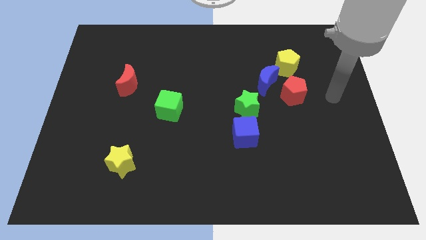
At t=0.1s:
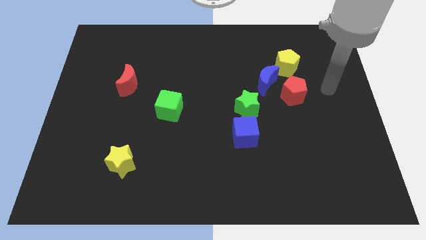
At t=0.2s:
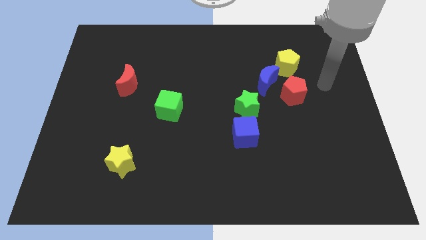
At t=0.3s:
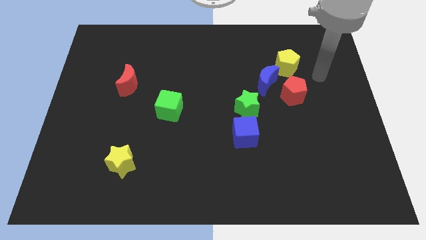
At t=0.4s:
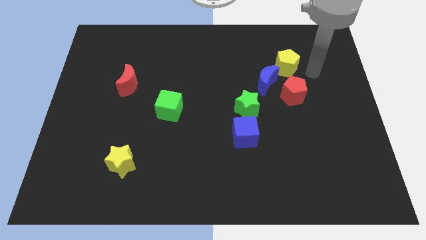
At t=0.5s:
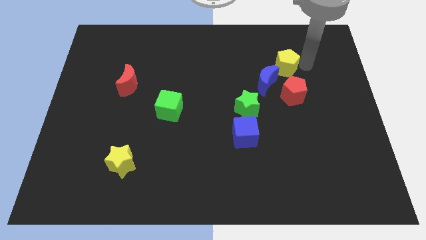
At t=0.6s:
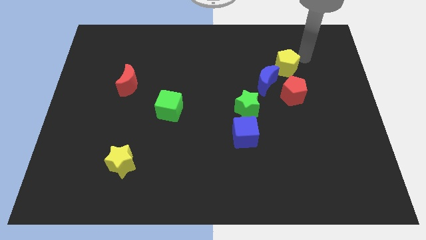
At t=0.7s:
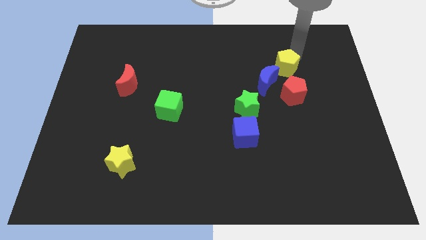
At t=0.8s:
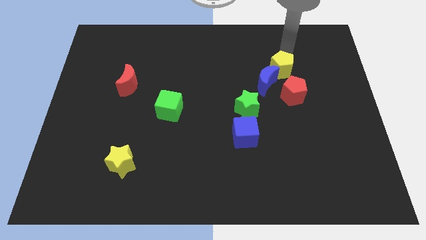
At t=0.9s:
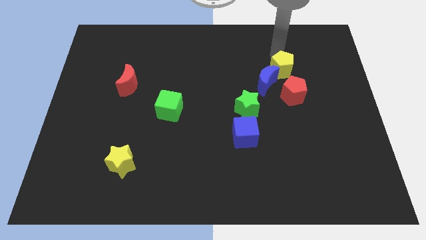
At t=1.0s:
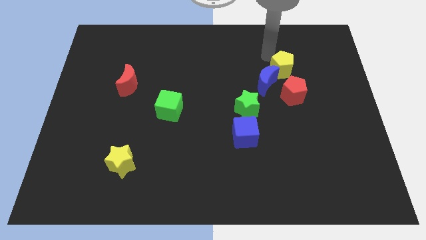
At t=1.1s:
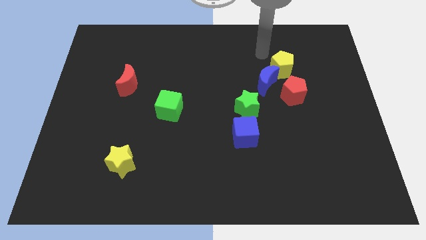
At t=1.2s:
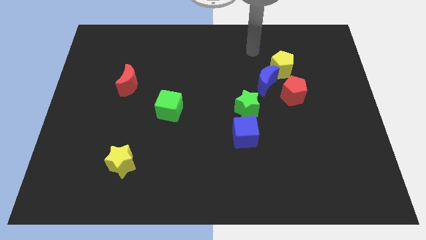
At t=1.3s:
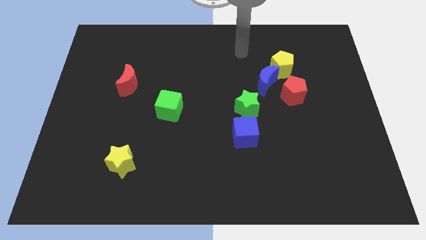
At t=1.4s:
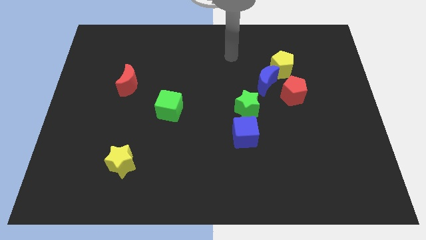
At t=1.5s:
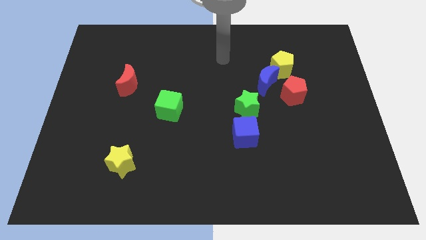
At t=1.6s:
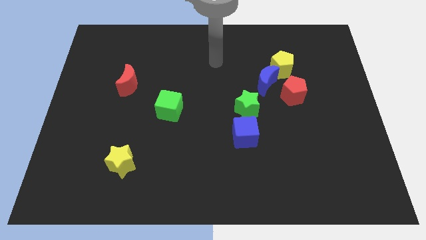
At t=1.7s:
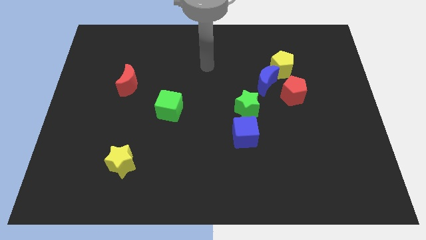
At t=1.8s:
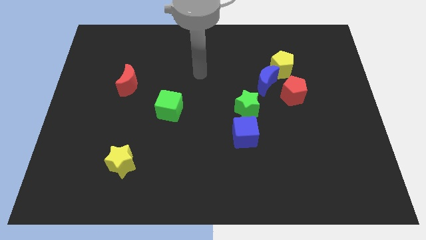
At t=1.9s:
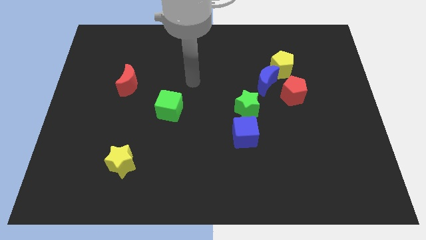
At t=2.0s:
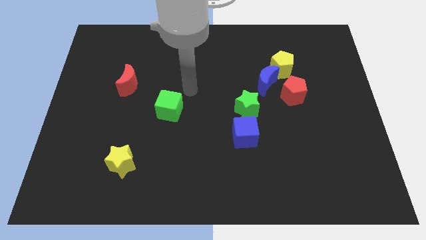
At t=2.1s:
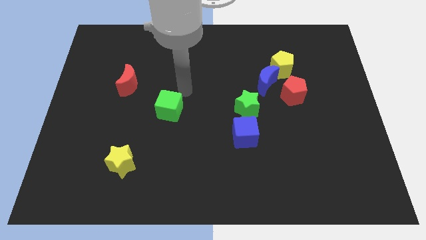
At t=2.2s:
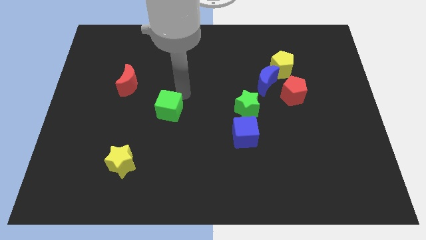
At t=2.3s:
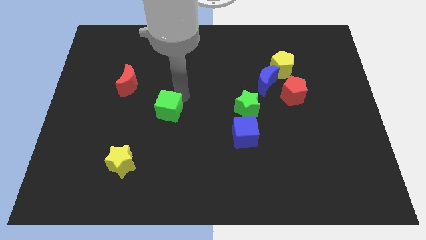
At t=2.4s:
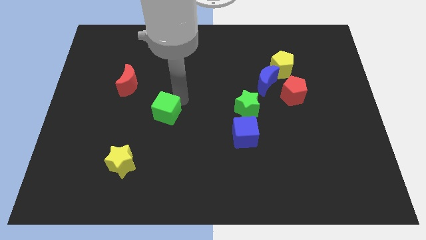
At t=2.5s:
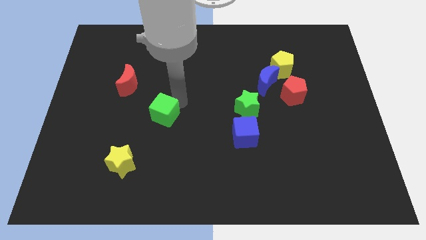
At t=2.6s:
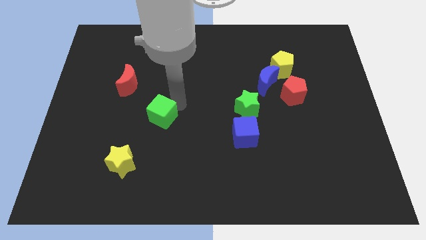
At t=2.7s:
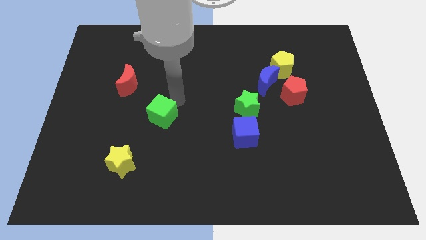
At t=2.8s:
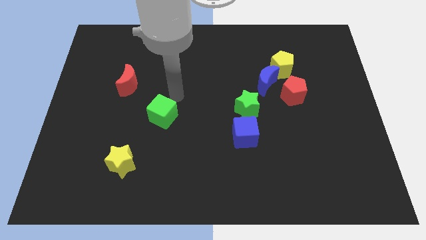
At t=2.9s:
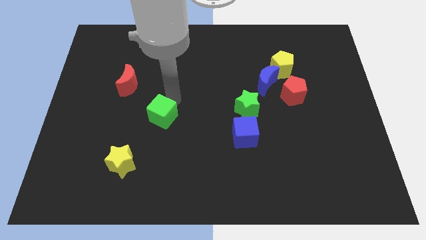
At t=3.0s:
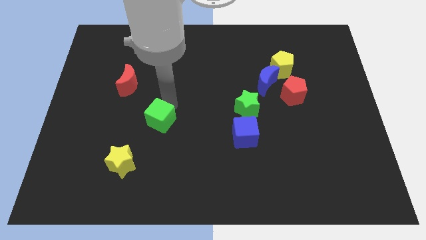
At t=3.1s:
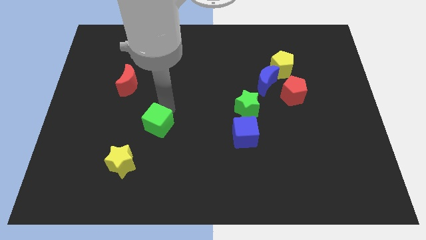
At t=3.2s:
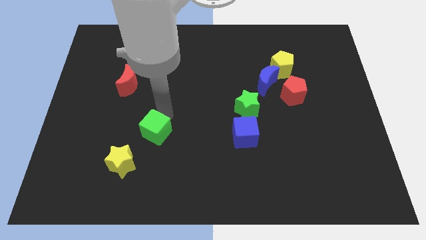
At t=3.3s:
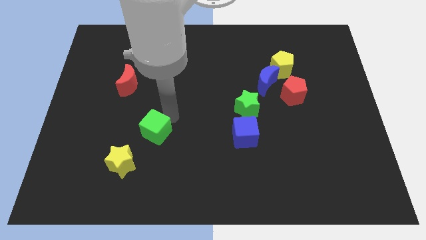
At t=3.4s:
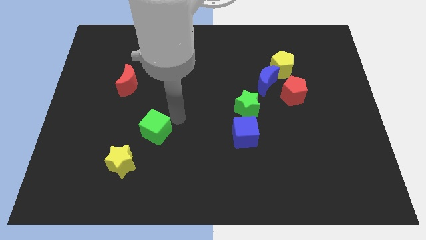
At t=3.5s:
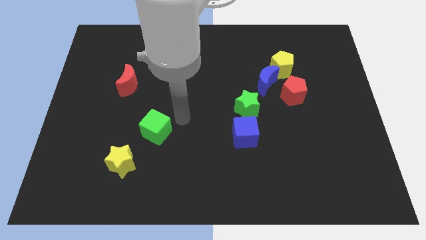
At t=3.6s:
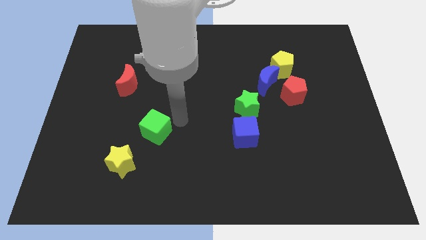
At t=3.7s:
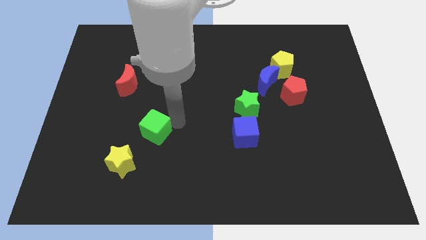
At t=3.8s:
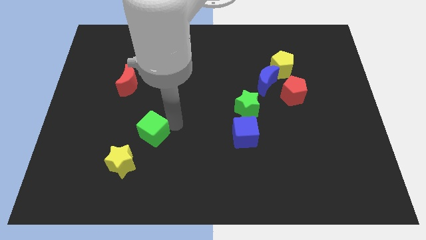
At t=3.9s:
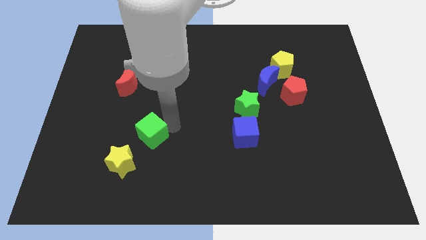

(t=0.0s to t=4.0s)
slide the green cube somewhat down and left

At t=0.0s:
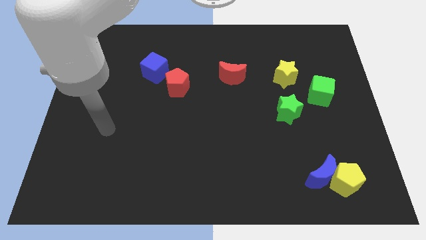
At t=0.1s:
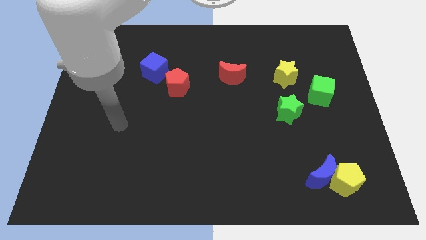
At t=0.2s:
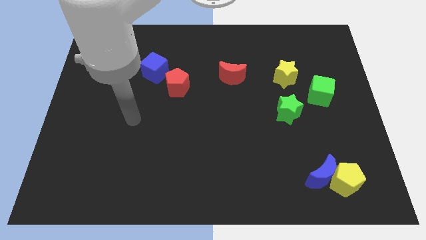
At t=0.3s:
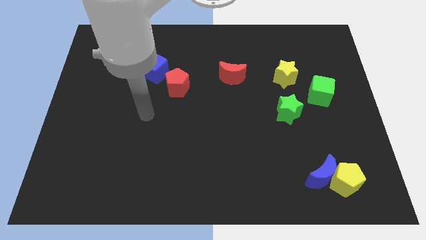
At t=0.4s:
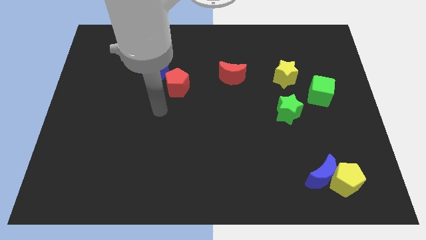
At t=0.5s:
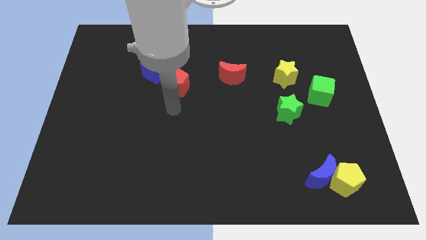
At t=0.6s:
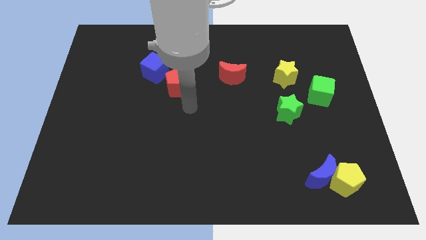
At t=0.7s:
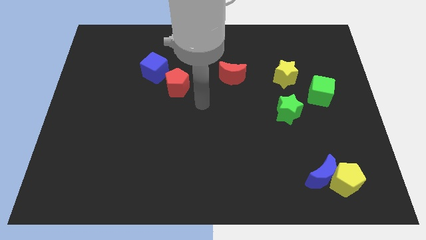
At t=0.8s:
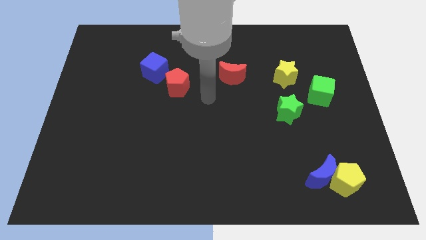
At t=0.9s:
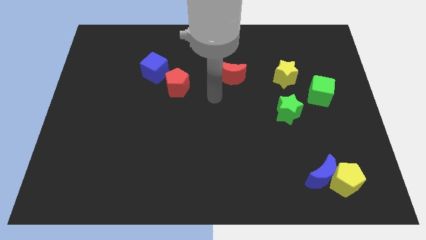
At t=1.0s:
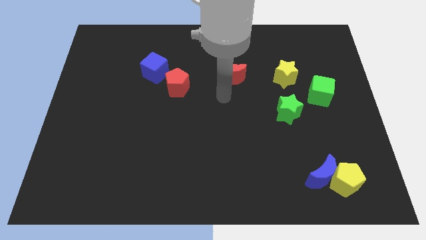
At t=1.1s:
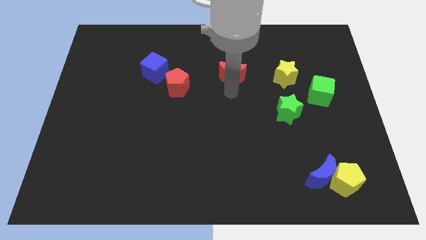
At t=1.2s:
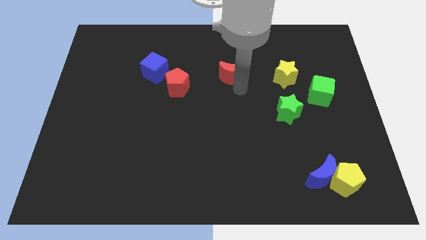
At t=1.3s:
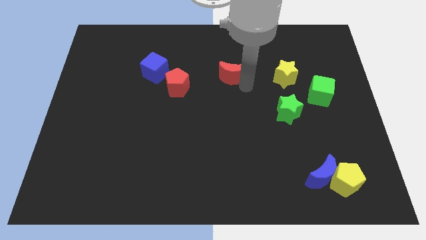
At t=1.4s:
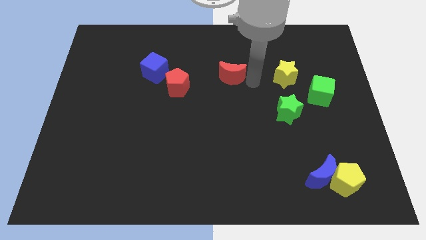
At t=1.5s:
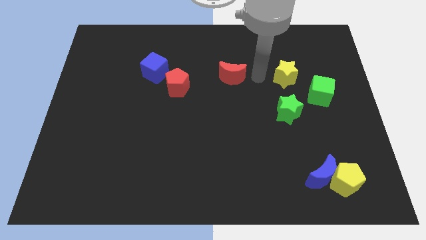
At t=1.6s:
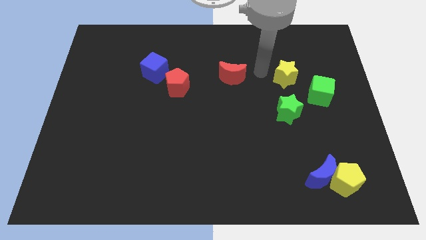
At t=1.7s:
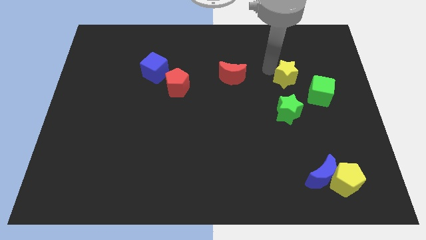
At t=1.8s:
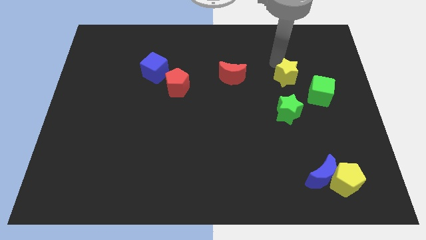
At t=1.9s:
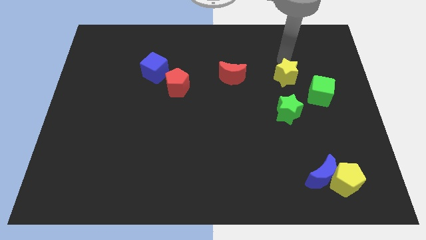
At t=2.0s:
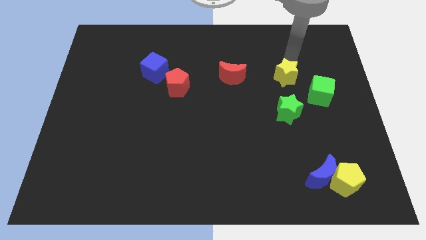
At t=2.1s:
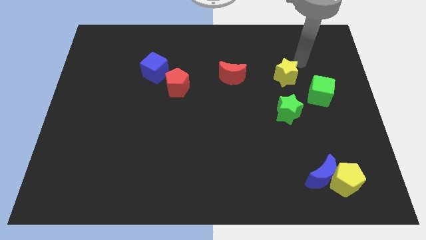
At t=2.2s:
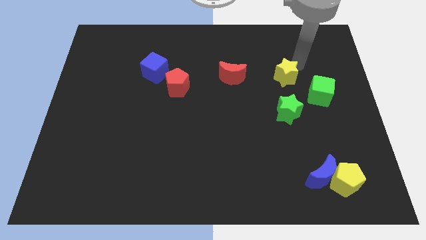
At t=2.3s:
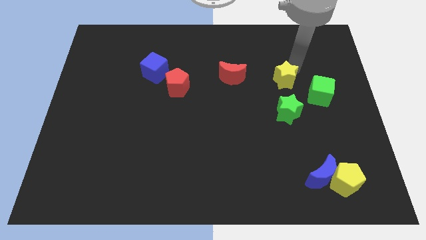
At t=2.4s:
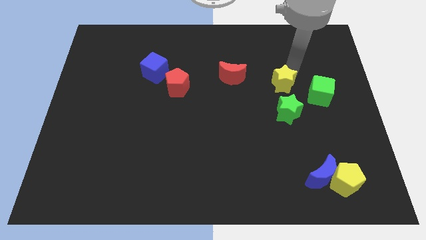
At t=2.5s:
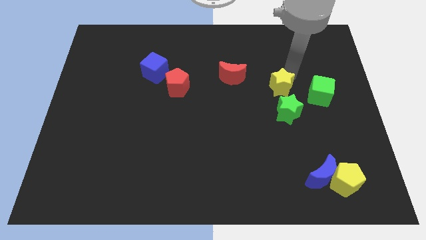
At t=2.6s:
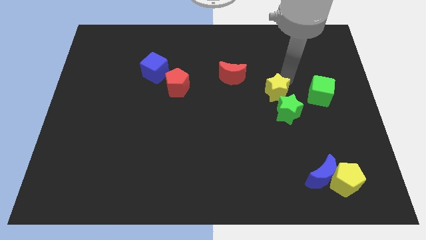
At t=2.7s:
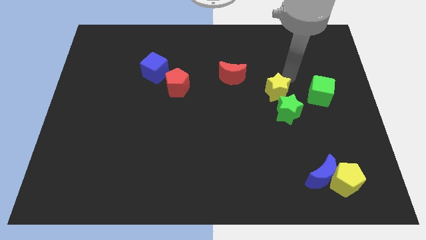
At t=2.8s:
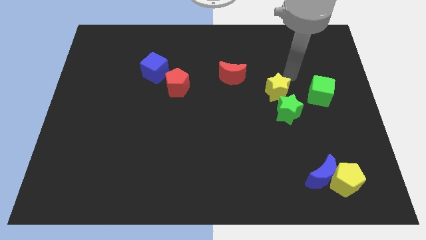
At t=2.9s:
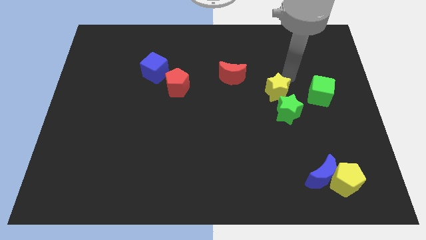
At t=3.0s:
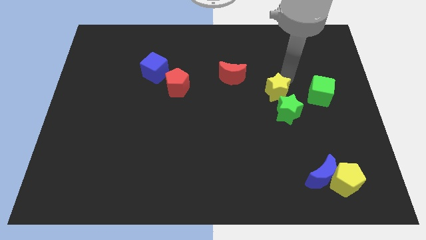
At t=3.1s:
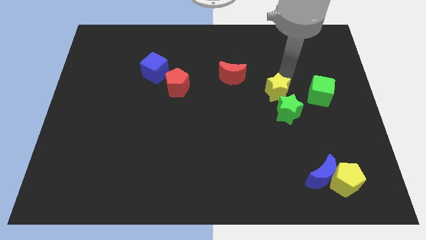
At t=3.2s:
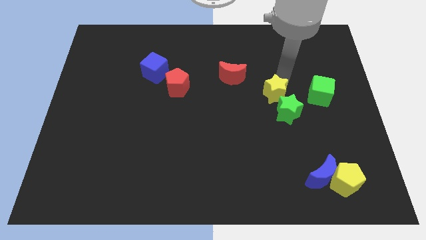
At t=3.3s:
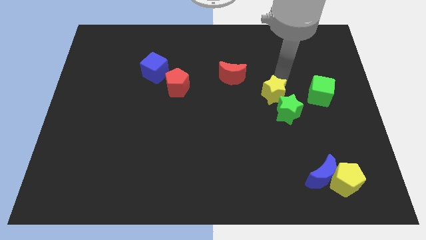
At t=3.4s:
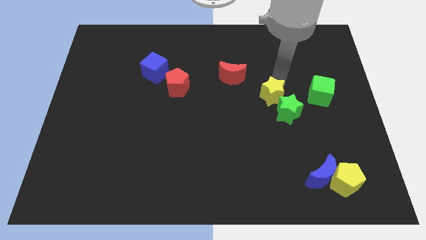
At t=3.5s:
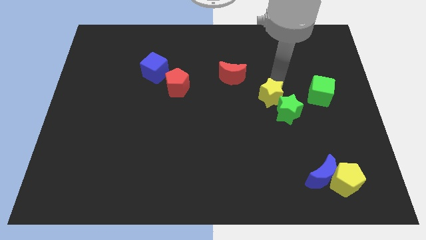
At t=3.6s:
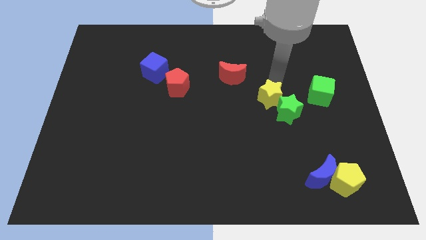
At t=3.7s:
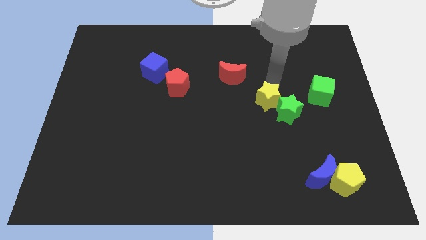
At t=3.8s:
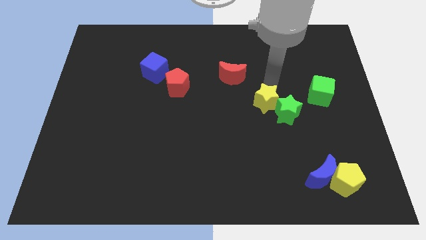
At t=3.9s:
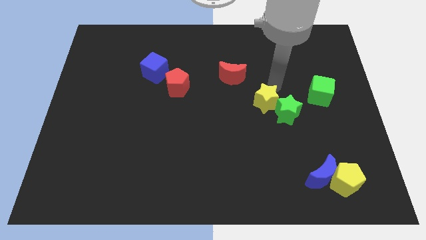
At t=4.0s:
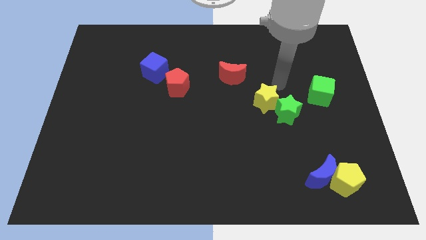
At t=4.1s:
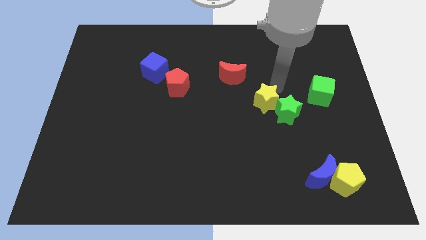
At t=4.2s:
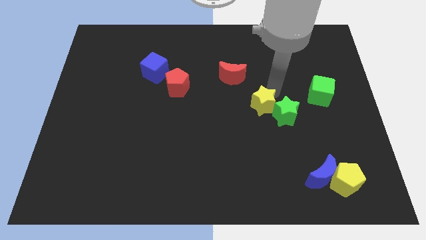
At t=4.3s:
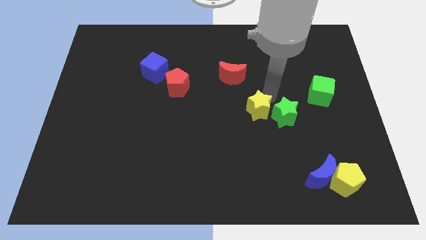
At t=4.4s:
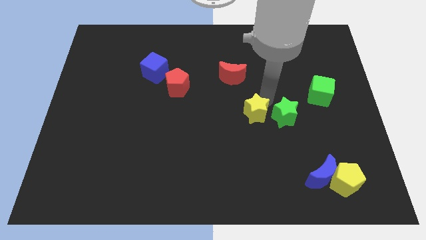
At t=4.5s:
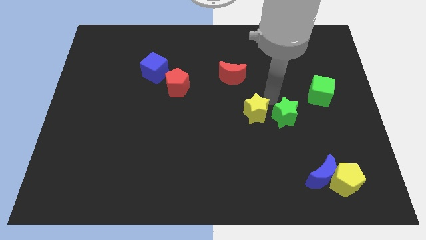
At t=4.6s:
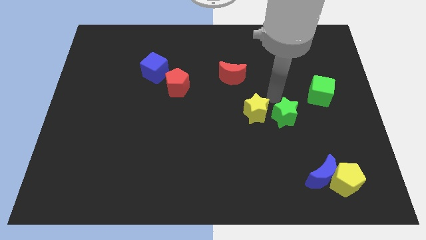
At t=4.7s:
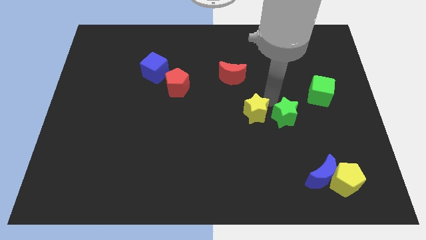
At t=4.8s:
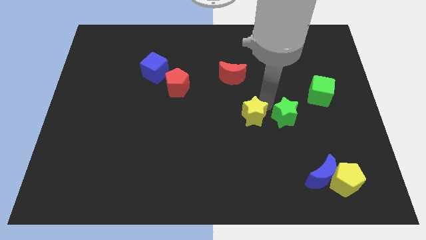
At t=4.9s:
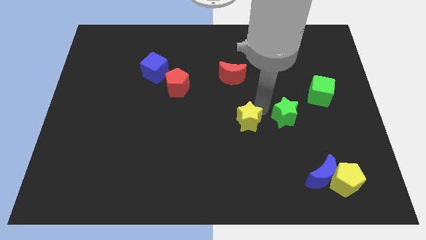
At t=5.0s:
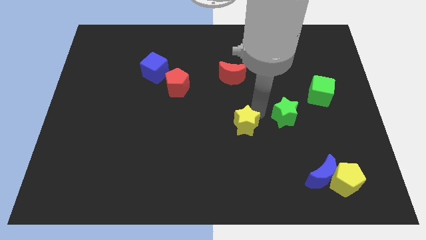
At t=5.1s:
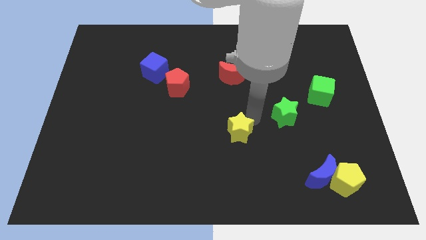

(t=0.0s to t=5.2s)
move the yellow star diagonally down and to the left
